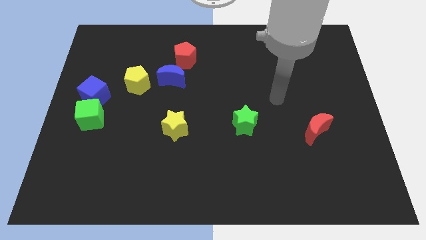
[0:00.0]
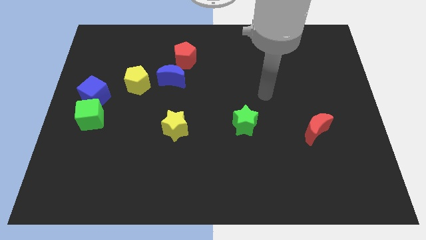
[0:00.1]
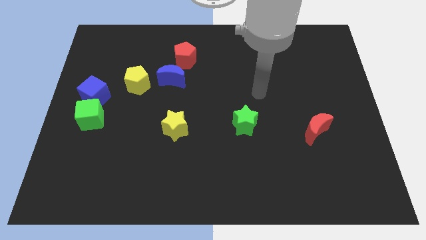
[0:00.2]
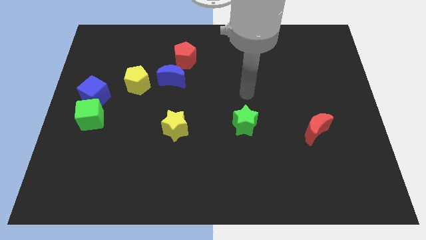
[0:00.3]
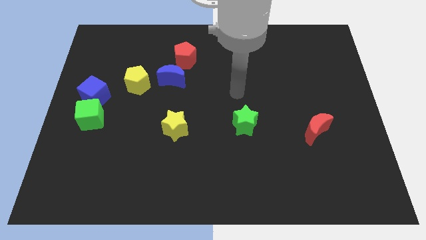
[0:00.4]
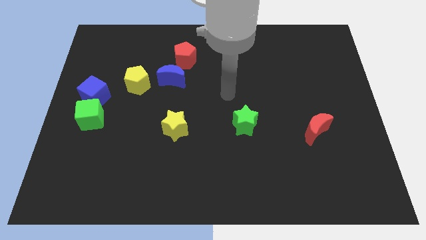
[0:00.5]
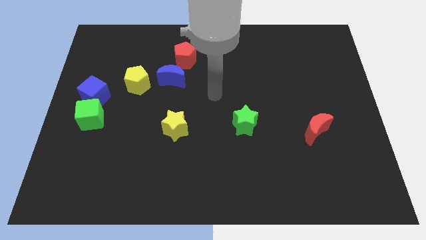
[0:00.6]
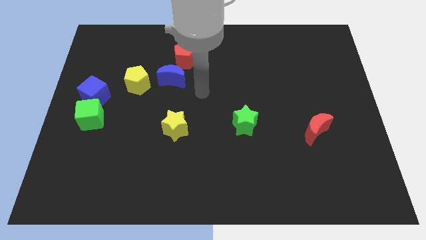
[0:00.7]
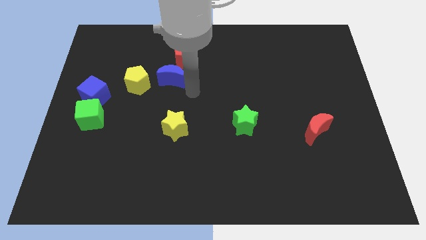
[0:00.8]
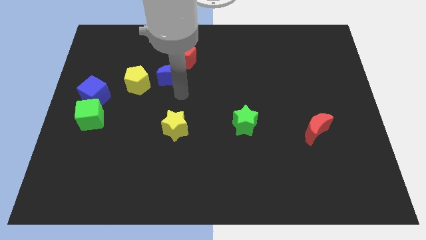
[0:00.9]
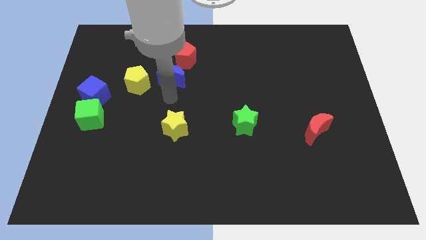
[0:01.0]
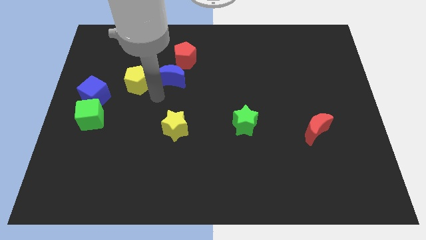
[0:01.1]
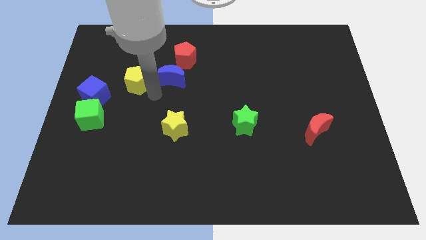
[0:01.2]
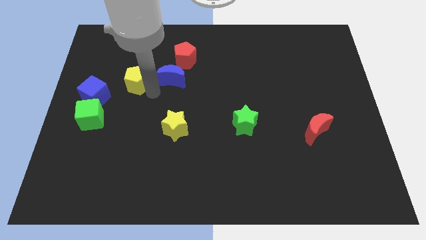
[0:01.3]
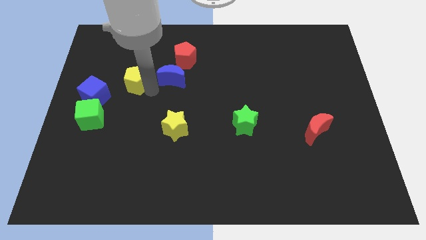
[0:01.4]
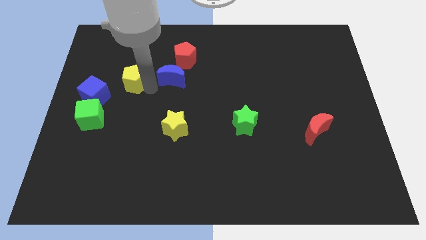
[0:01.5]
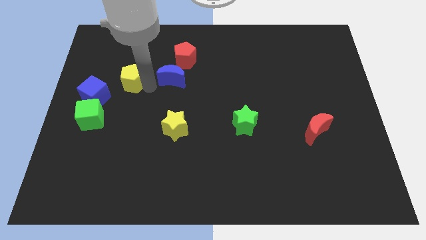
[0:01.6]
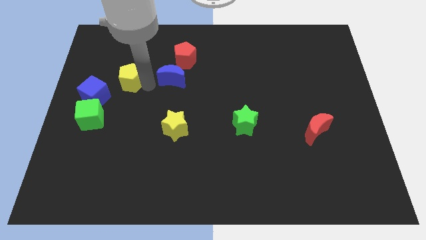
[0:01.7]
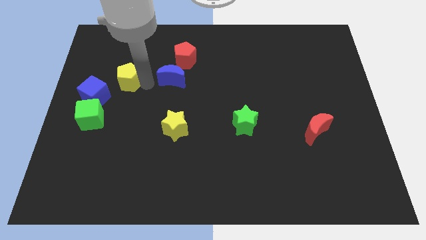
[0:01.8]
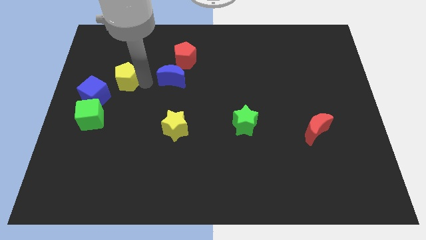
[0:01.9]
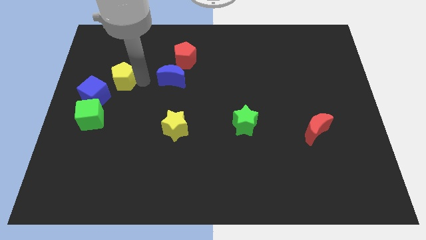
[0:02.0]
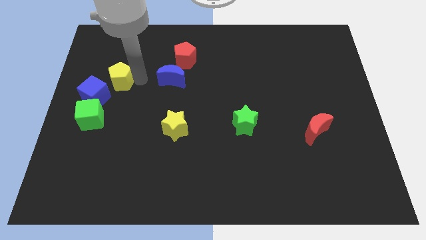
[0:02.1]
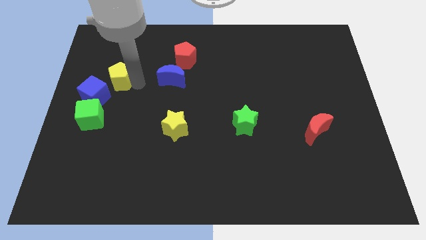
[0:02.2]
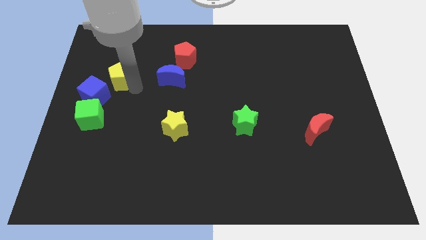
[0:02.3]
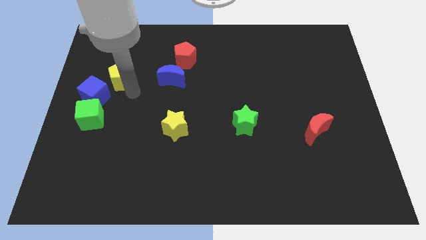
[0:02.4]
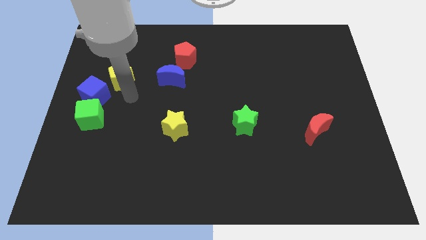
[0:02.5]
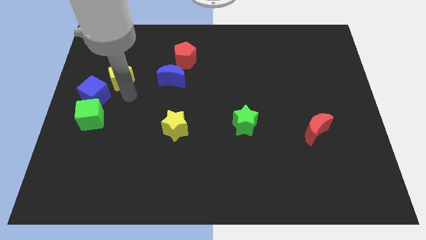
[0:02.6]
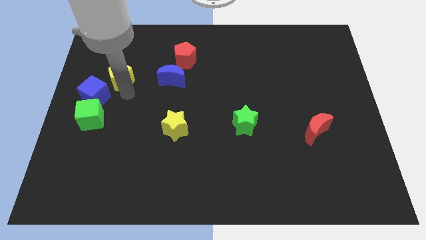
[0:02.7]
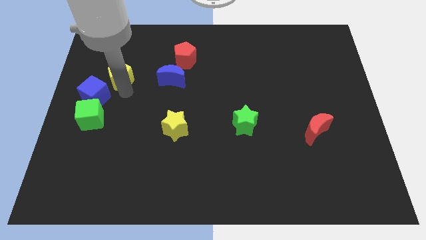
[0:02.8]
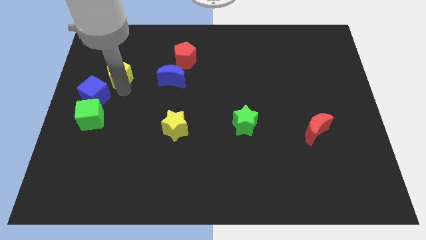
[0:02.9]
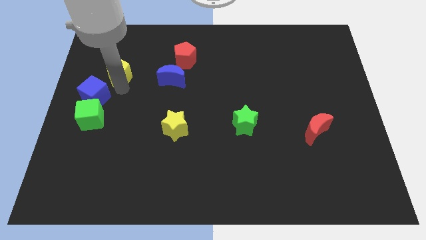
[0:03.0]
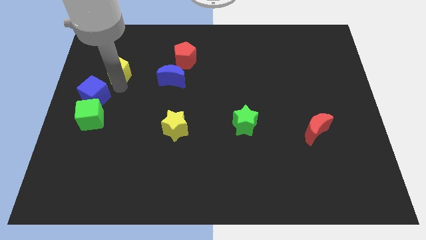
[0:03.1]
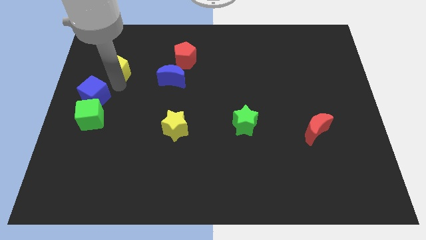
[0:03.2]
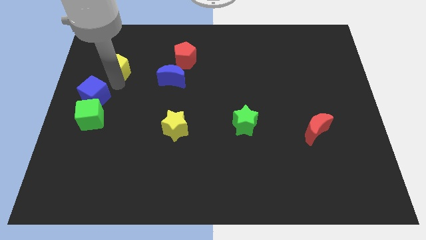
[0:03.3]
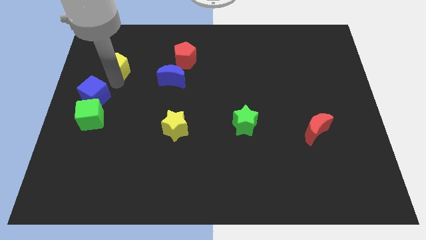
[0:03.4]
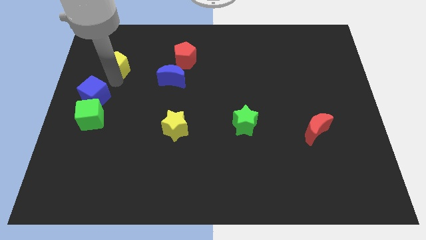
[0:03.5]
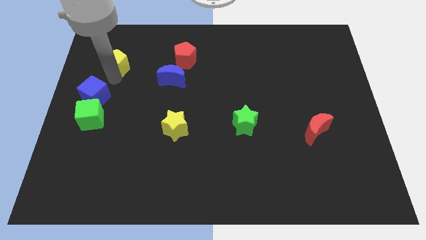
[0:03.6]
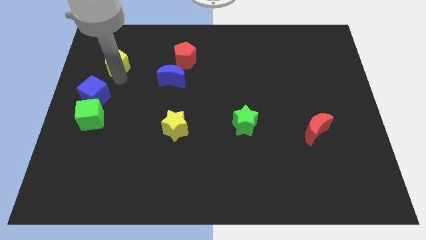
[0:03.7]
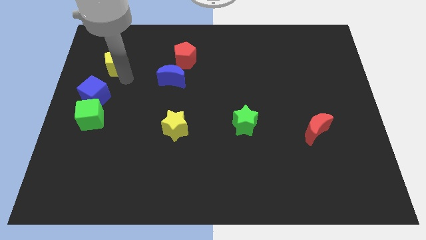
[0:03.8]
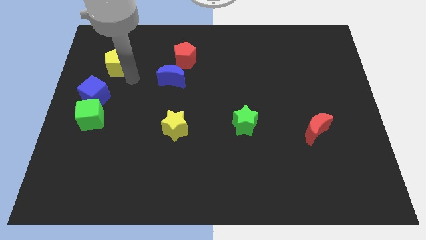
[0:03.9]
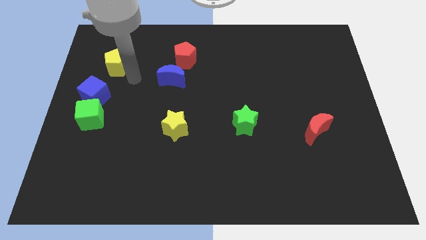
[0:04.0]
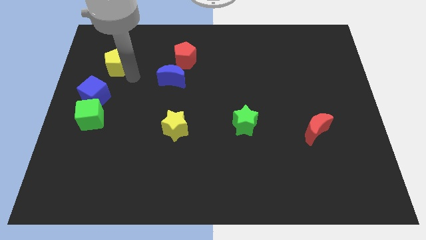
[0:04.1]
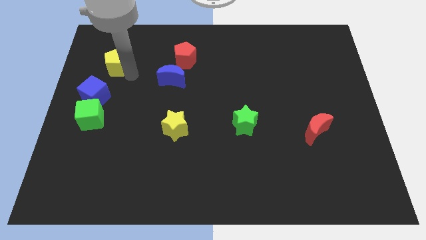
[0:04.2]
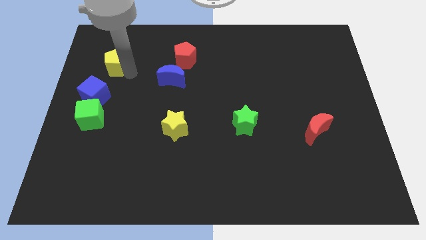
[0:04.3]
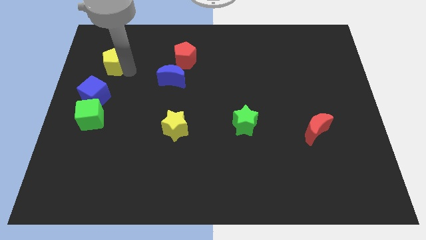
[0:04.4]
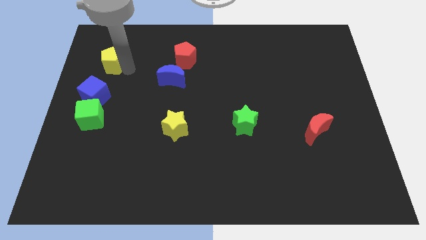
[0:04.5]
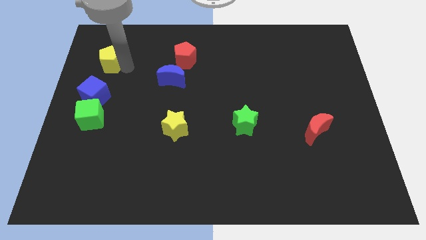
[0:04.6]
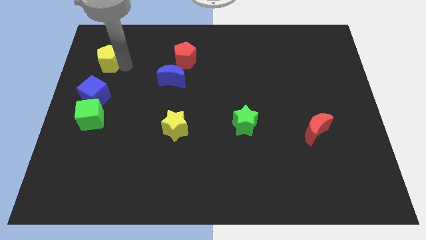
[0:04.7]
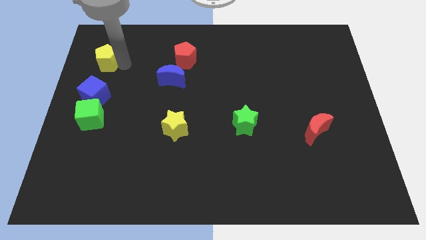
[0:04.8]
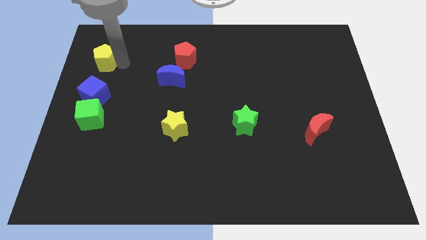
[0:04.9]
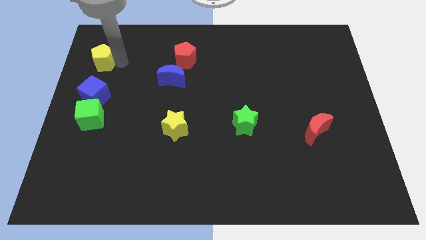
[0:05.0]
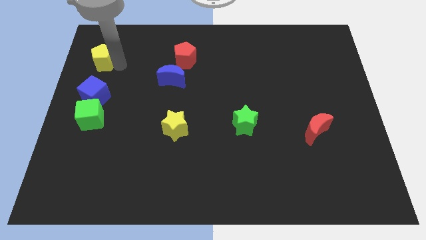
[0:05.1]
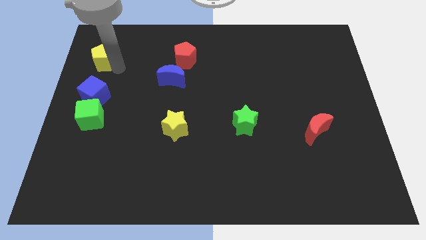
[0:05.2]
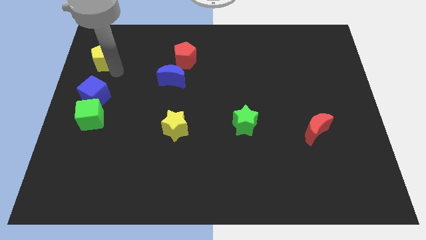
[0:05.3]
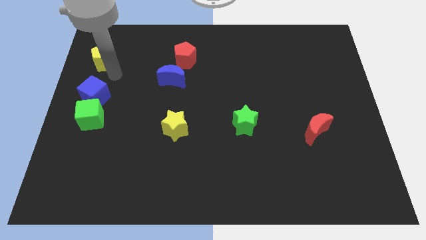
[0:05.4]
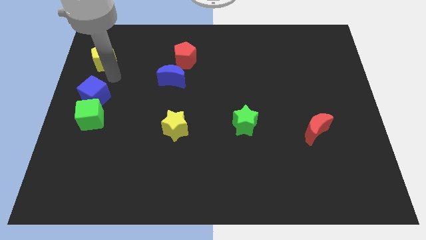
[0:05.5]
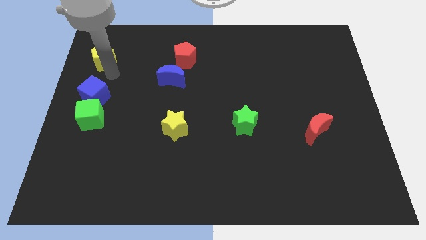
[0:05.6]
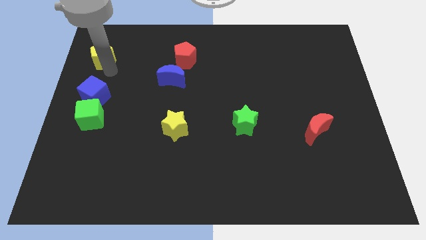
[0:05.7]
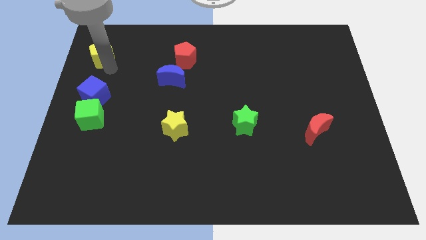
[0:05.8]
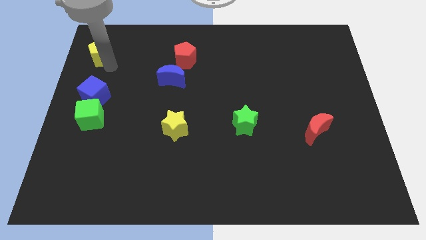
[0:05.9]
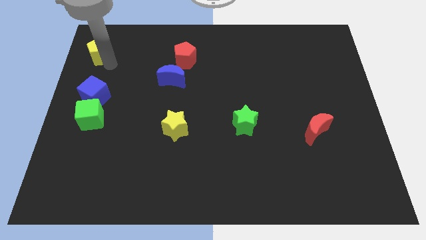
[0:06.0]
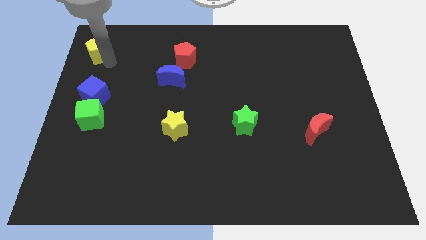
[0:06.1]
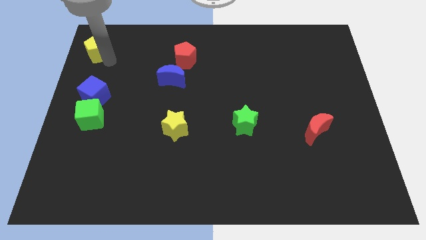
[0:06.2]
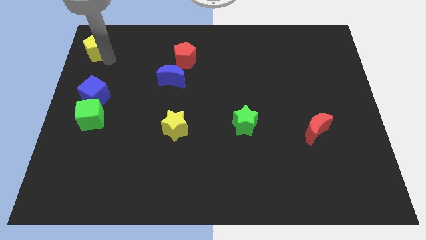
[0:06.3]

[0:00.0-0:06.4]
slide the yellow pentagon to the top left

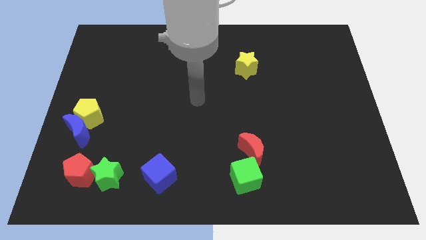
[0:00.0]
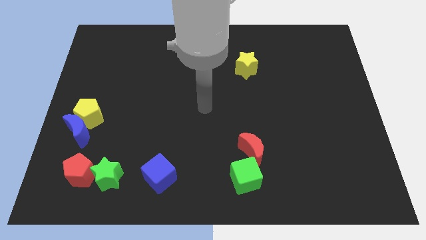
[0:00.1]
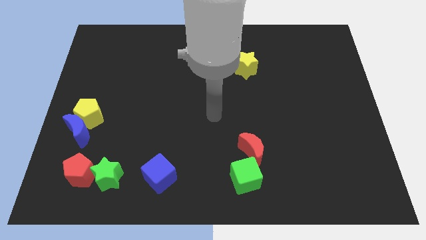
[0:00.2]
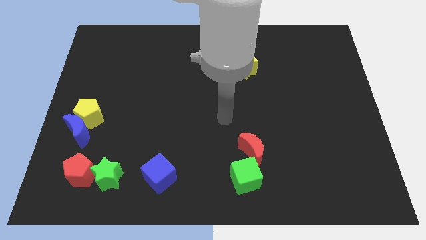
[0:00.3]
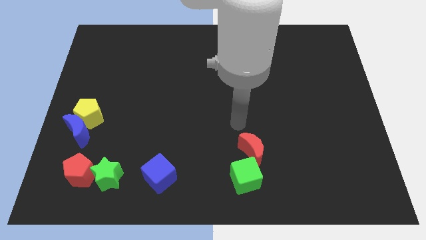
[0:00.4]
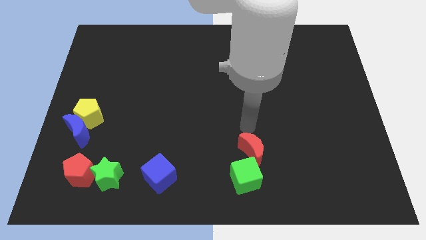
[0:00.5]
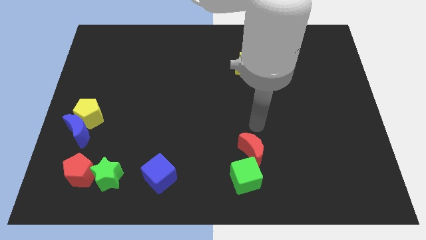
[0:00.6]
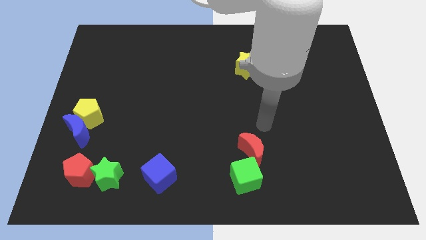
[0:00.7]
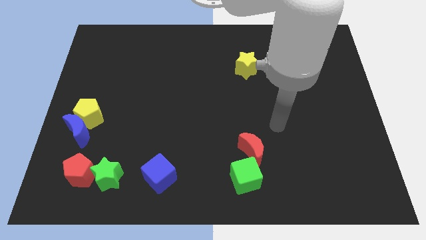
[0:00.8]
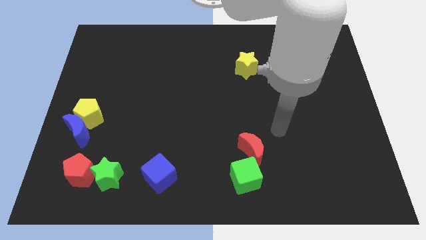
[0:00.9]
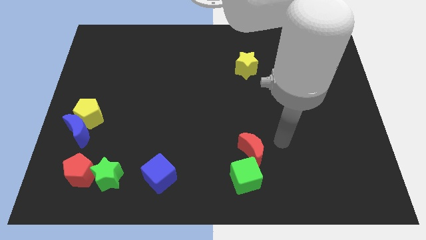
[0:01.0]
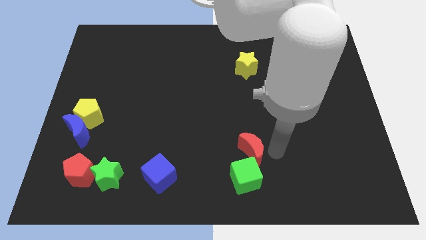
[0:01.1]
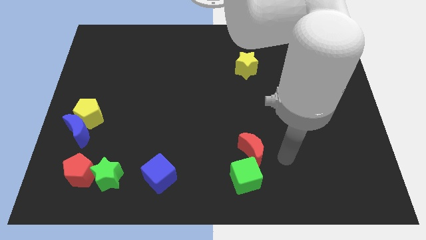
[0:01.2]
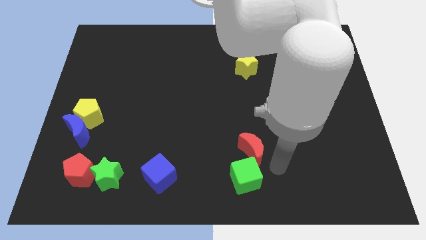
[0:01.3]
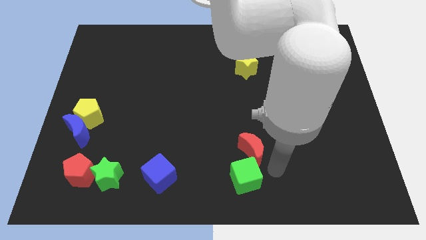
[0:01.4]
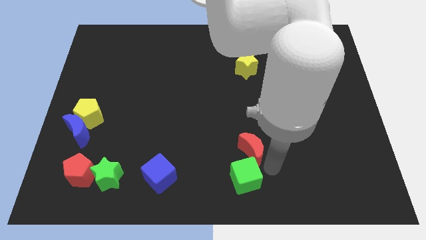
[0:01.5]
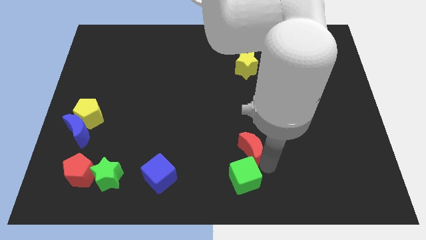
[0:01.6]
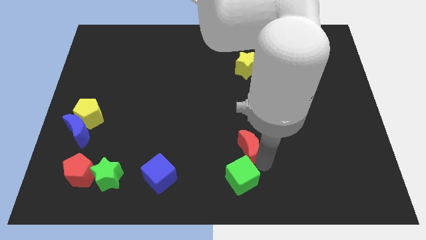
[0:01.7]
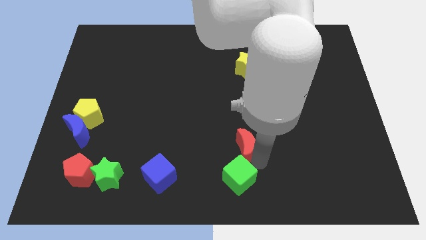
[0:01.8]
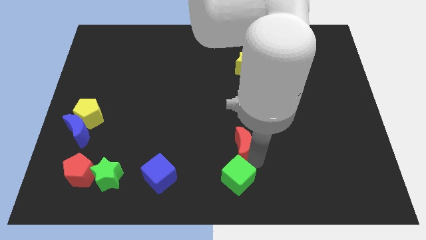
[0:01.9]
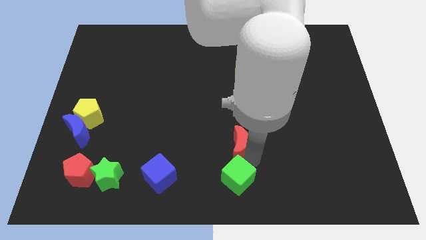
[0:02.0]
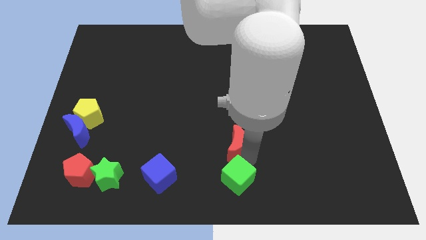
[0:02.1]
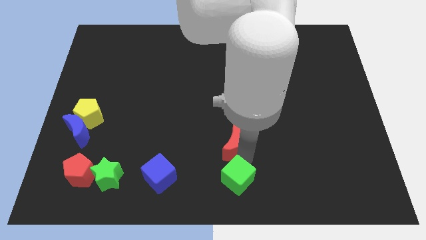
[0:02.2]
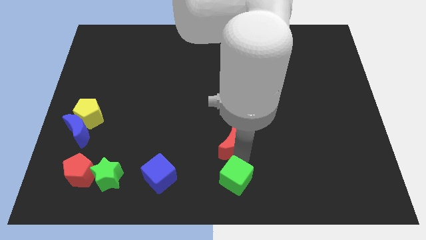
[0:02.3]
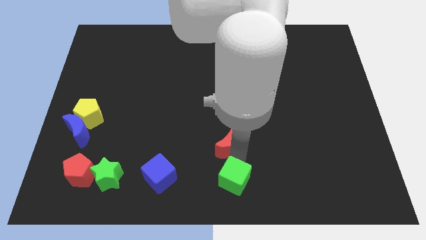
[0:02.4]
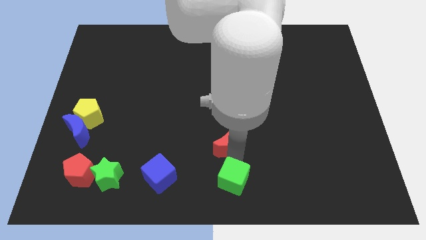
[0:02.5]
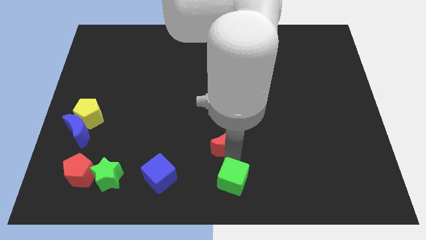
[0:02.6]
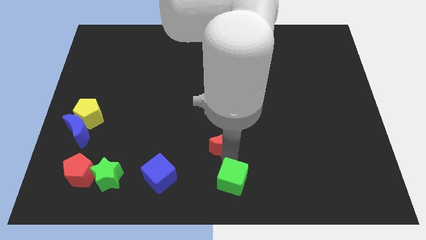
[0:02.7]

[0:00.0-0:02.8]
slide the red moon to the middle of the board
